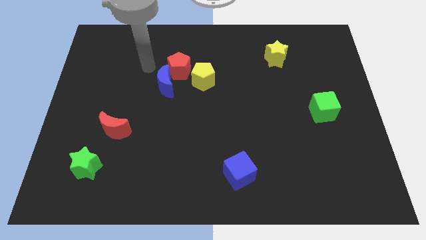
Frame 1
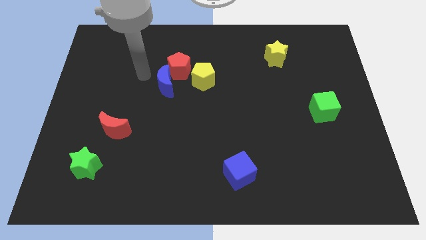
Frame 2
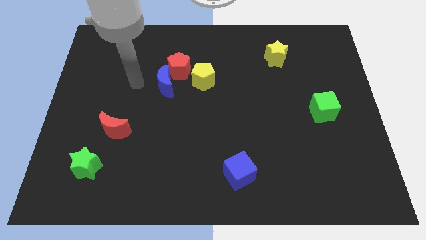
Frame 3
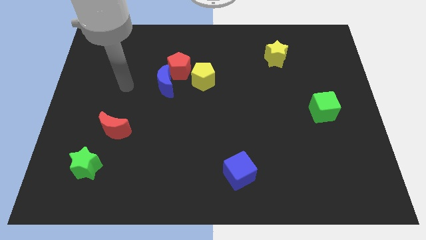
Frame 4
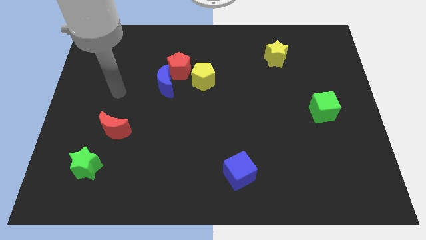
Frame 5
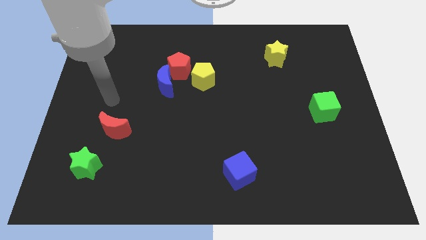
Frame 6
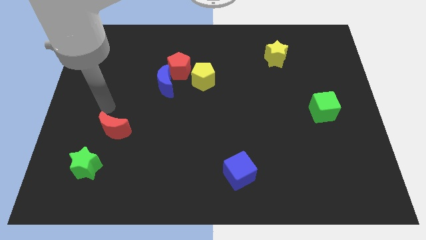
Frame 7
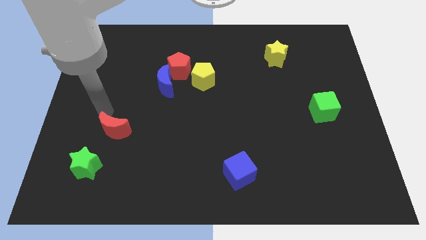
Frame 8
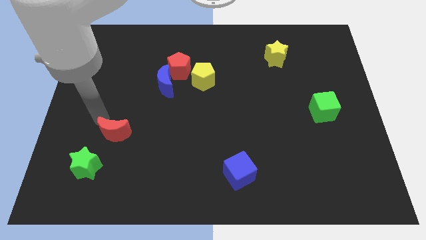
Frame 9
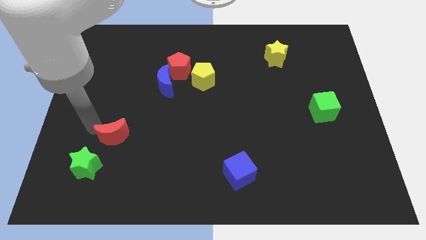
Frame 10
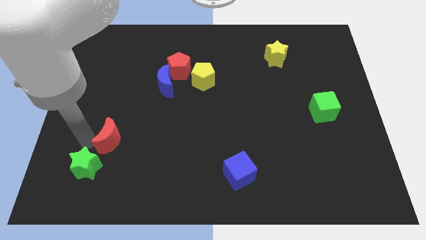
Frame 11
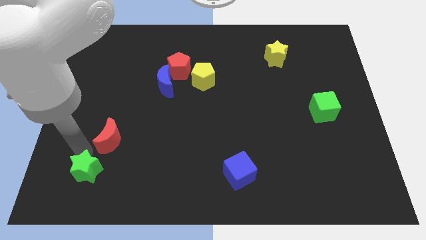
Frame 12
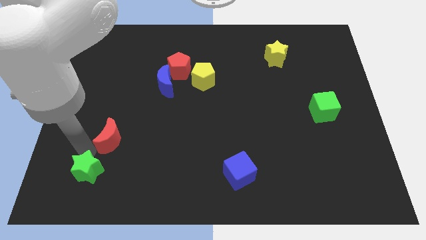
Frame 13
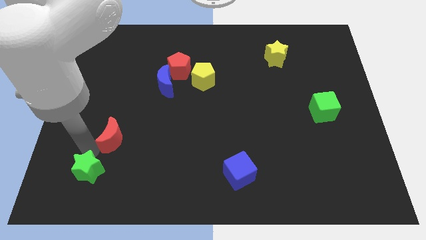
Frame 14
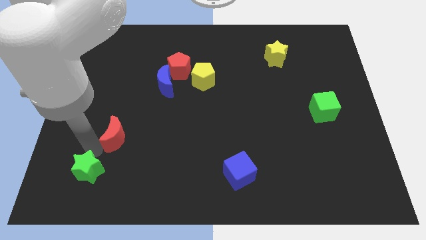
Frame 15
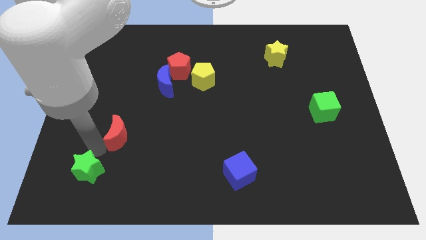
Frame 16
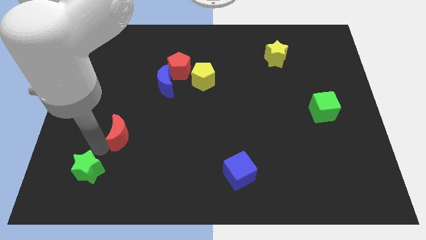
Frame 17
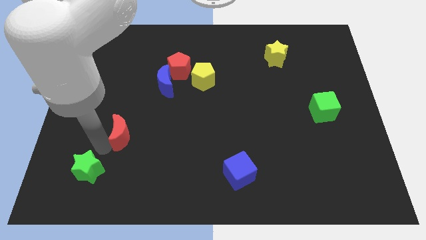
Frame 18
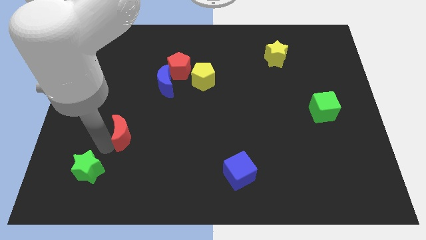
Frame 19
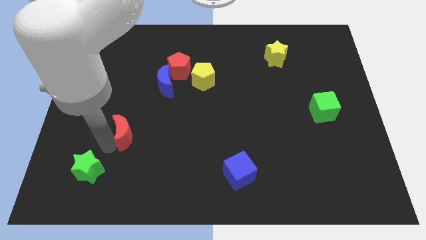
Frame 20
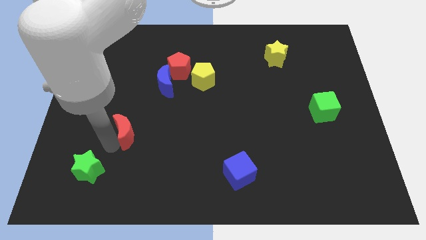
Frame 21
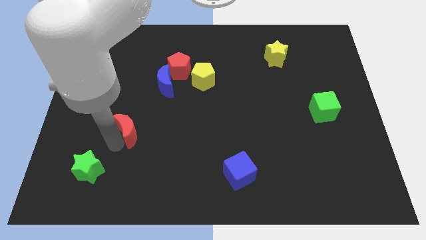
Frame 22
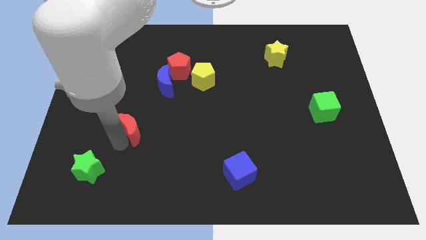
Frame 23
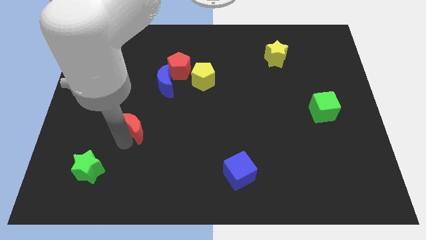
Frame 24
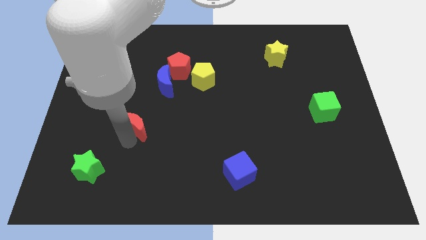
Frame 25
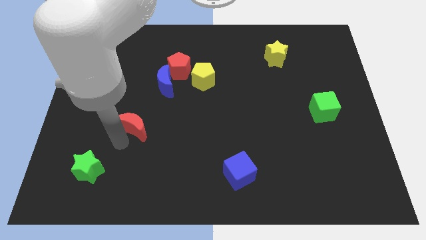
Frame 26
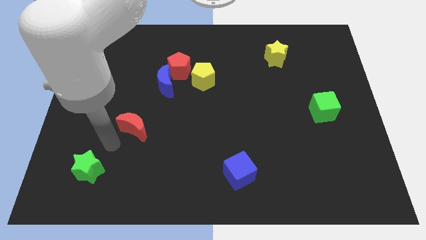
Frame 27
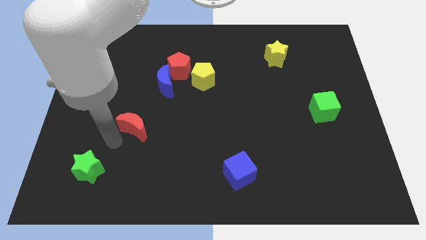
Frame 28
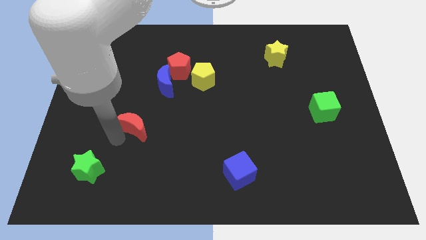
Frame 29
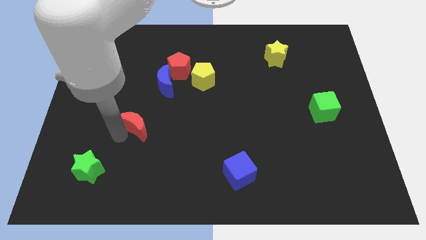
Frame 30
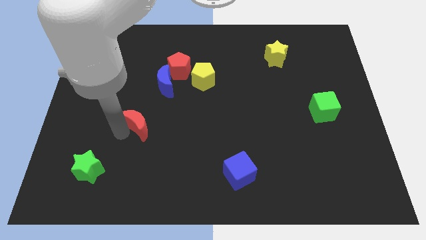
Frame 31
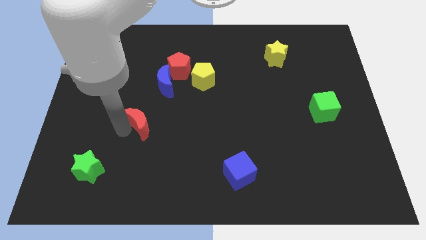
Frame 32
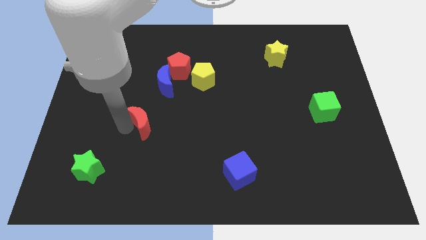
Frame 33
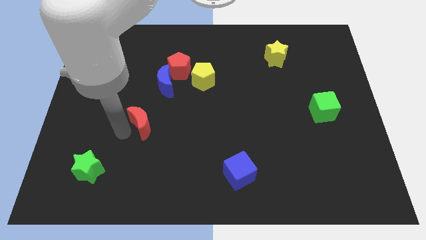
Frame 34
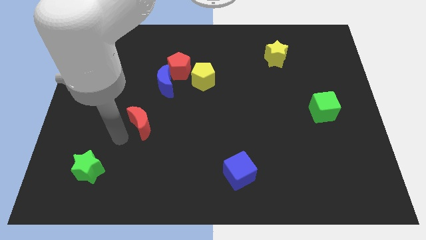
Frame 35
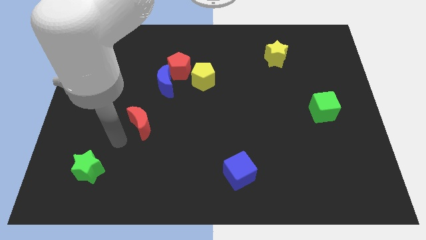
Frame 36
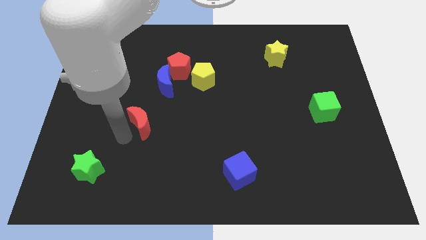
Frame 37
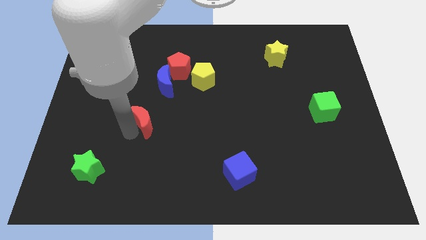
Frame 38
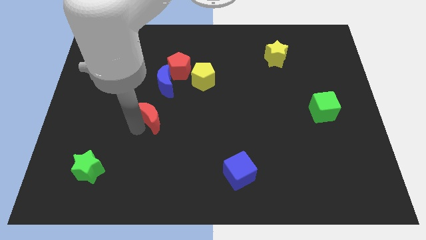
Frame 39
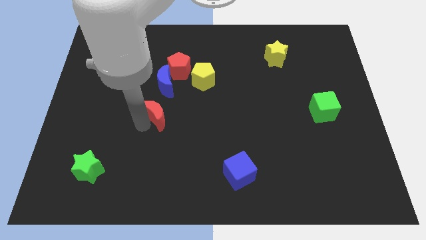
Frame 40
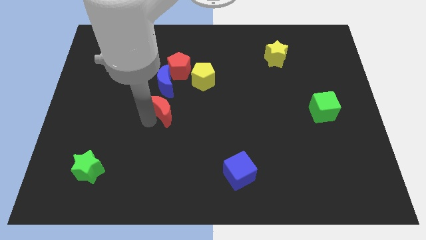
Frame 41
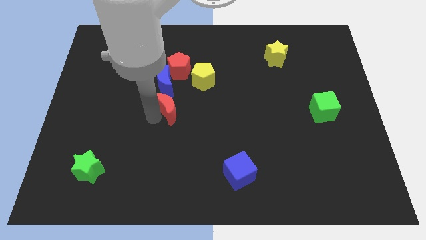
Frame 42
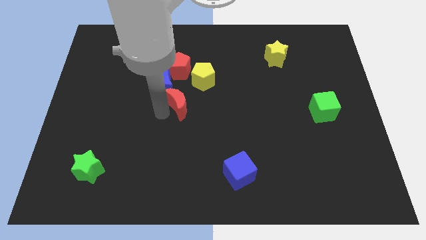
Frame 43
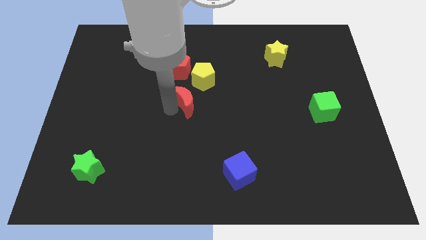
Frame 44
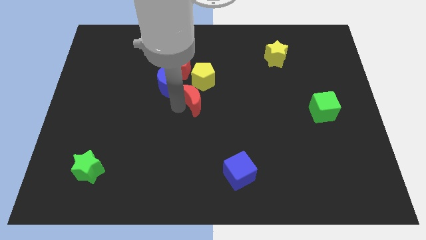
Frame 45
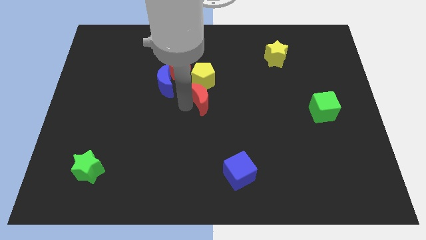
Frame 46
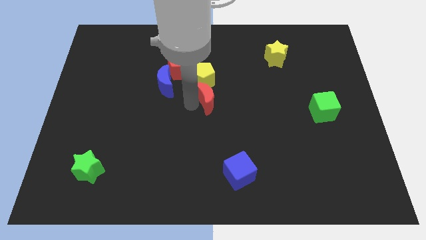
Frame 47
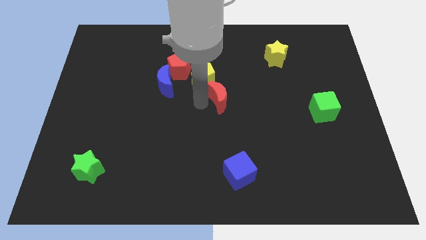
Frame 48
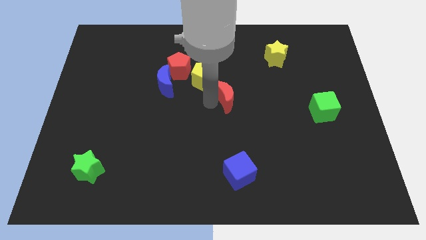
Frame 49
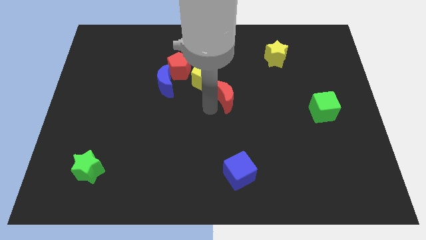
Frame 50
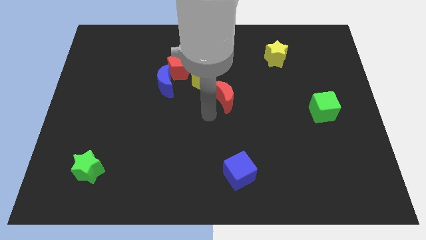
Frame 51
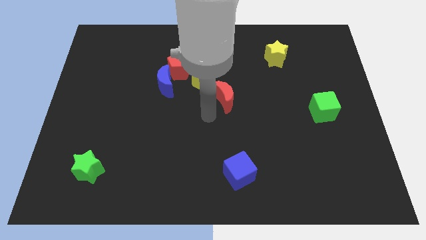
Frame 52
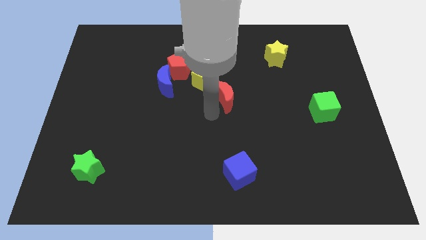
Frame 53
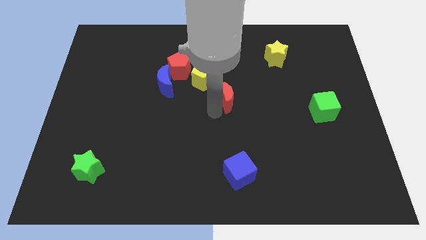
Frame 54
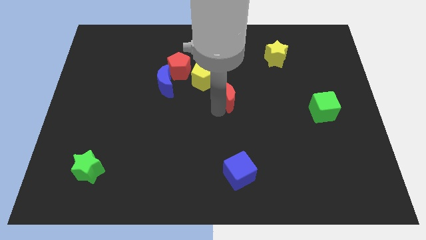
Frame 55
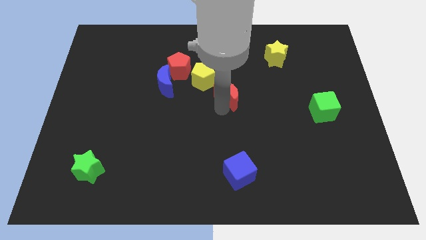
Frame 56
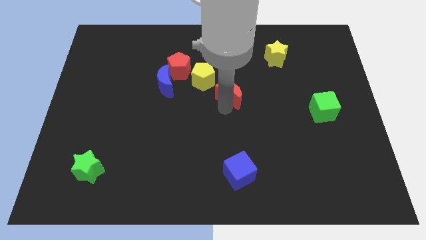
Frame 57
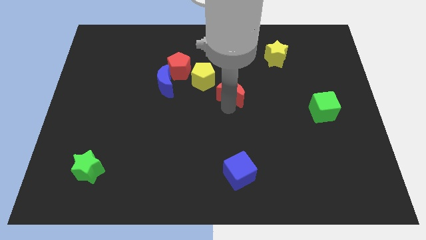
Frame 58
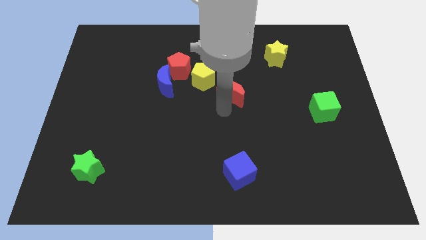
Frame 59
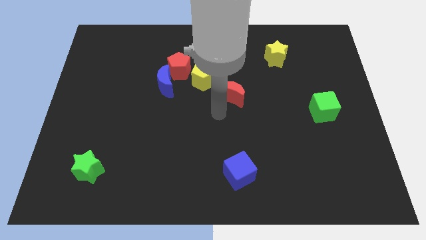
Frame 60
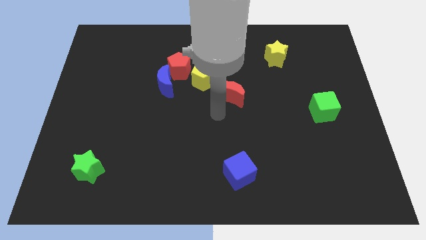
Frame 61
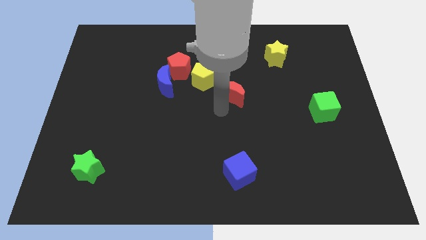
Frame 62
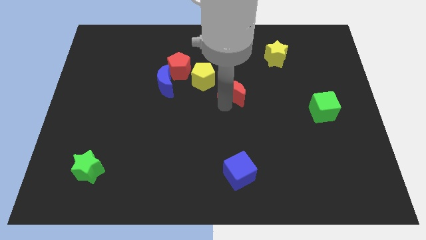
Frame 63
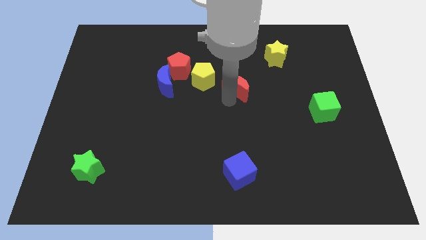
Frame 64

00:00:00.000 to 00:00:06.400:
put the red moon right of the yellow pentagon

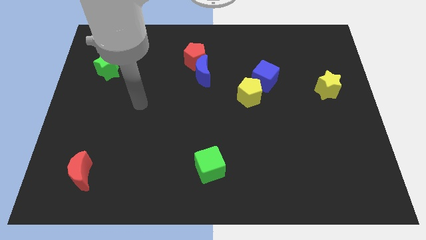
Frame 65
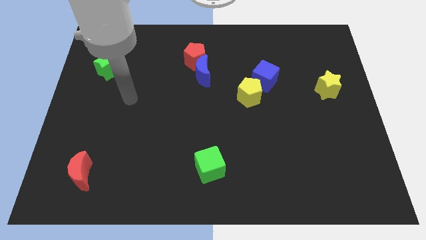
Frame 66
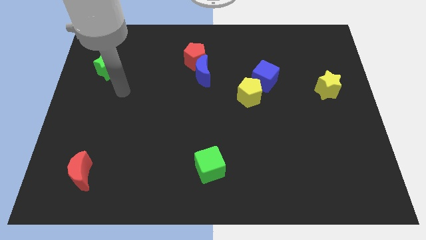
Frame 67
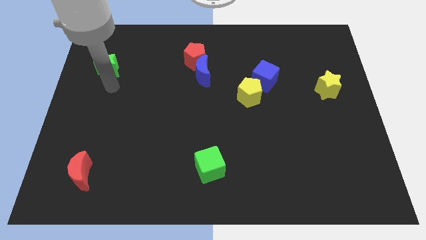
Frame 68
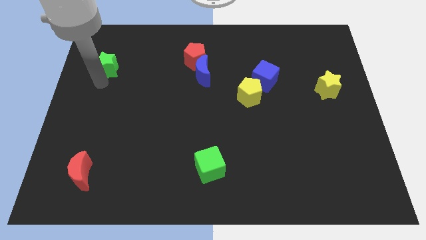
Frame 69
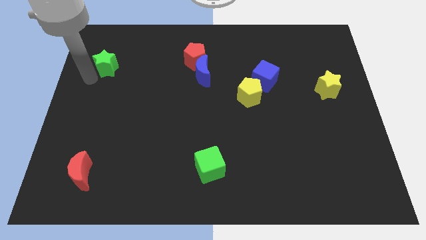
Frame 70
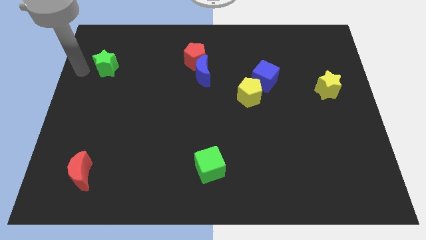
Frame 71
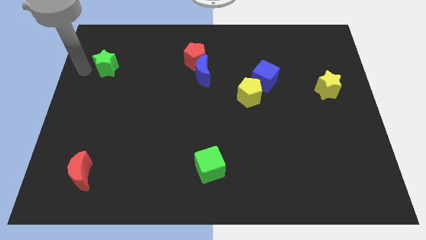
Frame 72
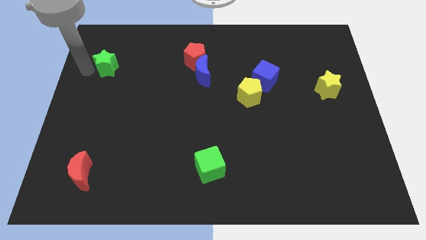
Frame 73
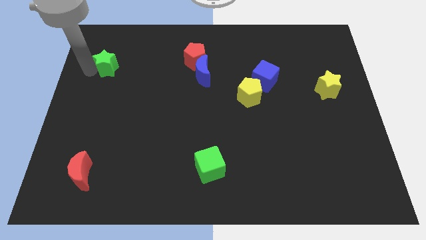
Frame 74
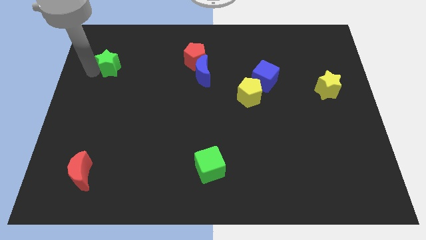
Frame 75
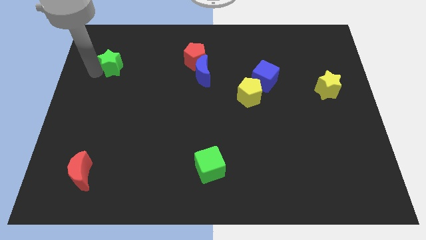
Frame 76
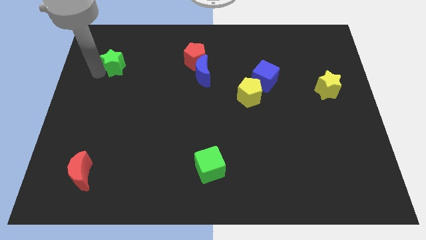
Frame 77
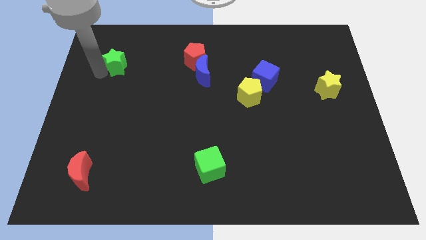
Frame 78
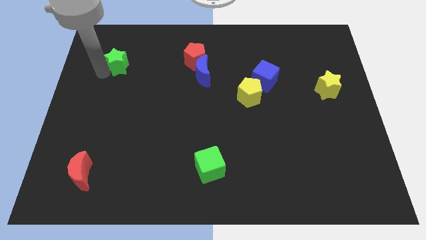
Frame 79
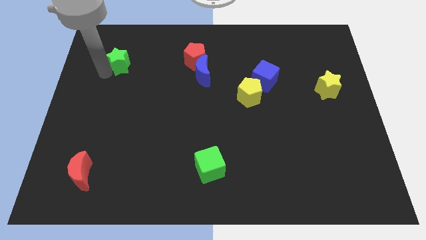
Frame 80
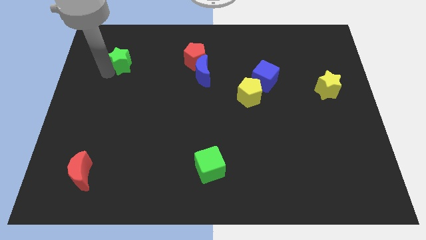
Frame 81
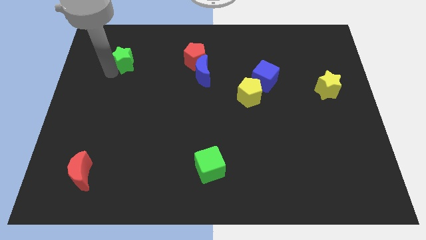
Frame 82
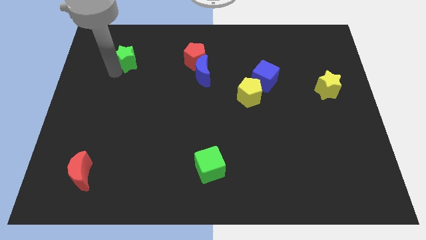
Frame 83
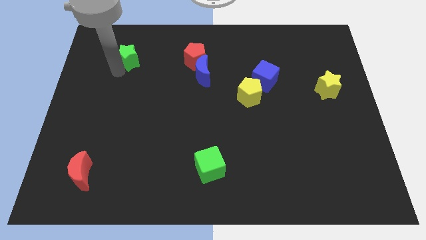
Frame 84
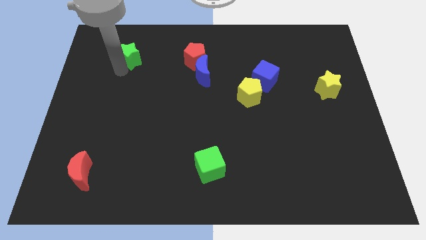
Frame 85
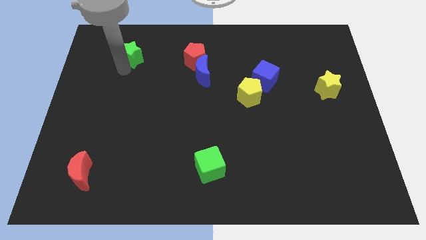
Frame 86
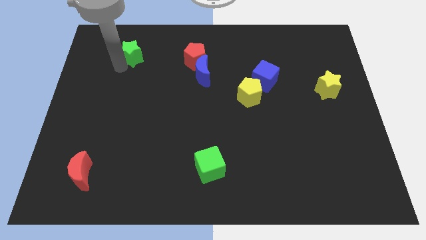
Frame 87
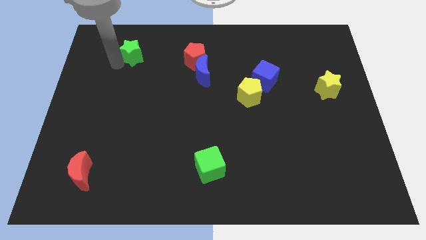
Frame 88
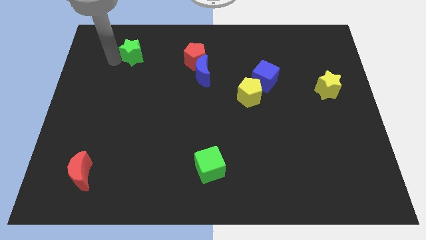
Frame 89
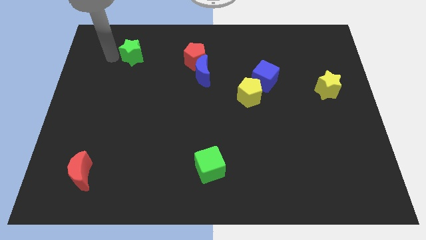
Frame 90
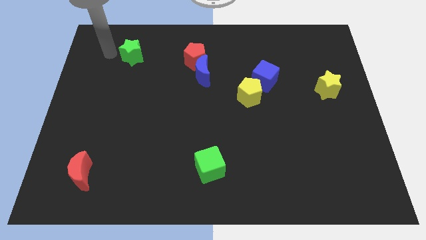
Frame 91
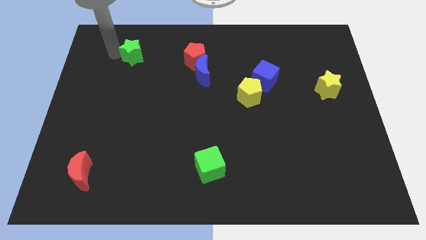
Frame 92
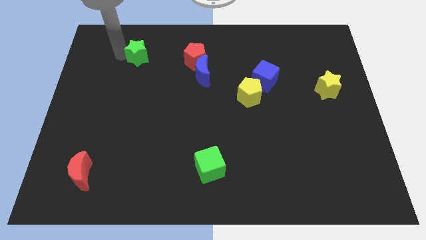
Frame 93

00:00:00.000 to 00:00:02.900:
put the green star to the left of the red pentagon
